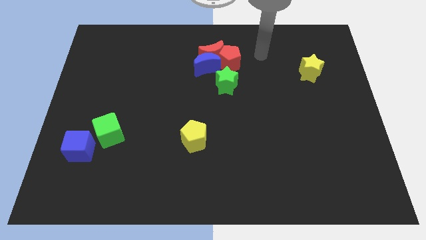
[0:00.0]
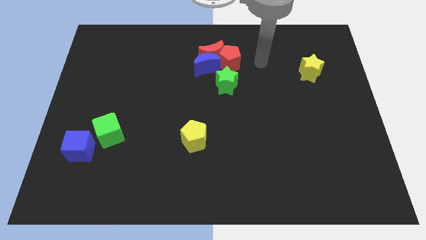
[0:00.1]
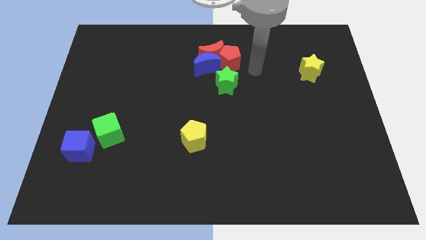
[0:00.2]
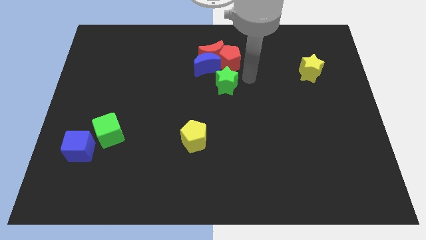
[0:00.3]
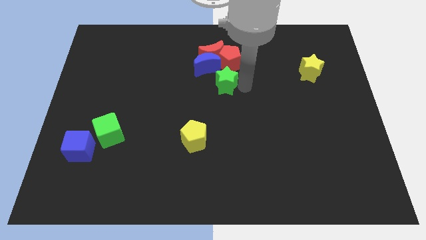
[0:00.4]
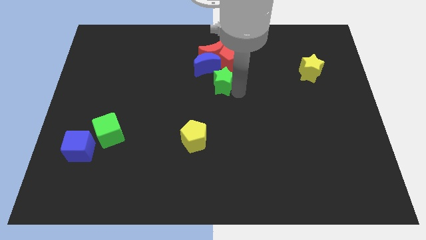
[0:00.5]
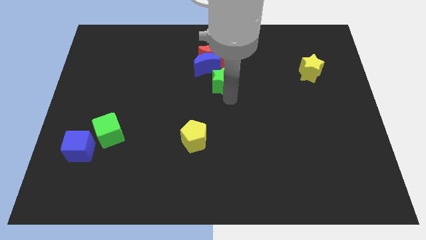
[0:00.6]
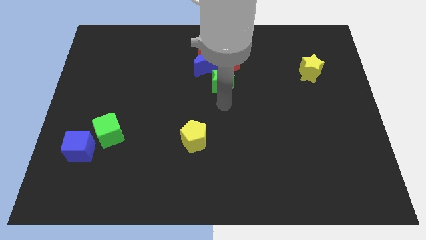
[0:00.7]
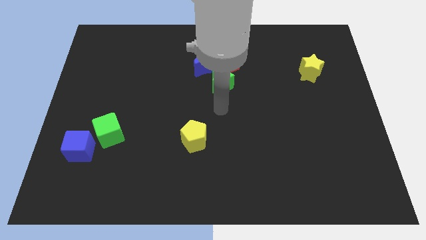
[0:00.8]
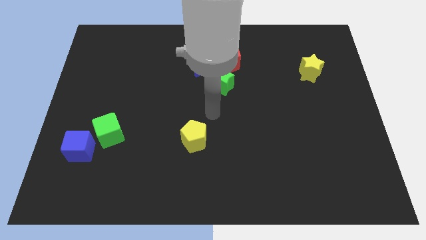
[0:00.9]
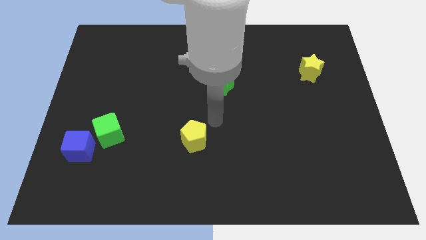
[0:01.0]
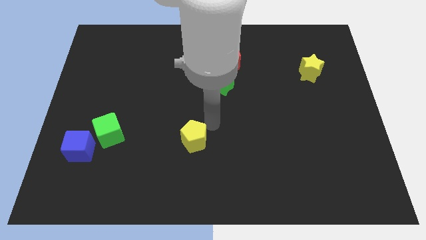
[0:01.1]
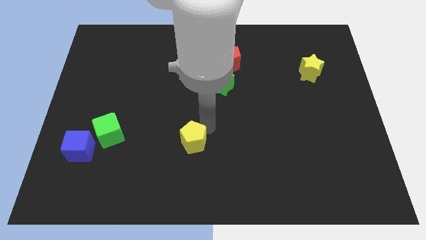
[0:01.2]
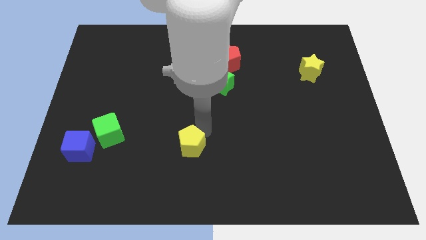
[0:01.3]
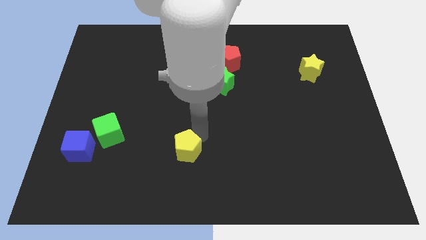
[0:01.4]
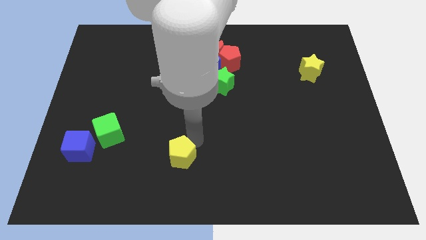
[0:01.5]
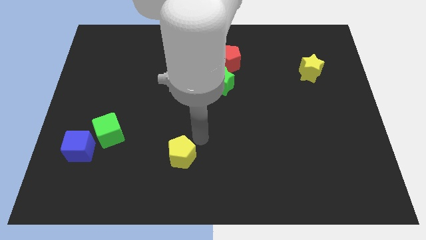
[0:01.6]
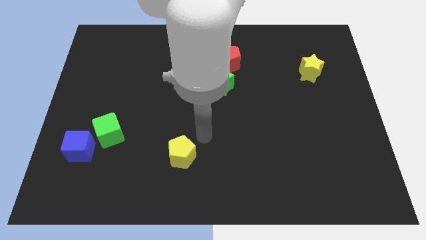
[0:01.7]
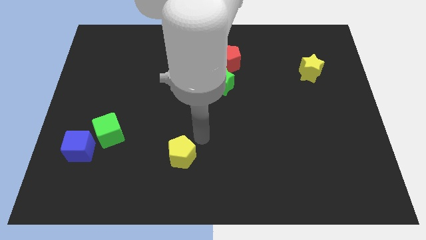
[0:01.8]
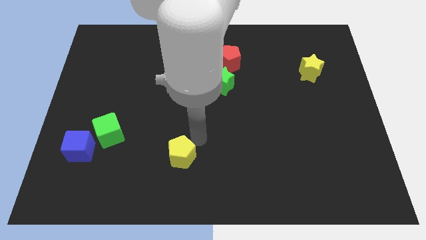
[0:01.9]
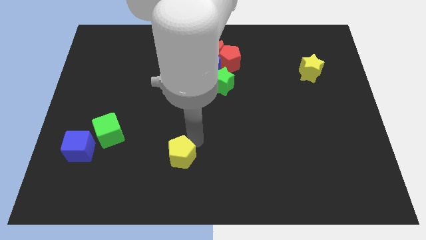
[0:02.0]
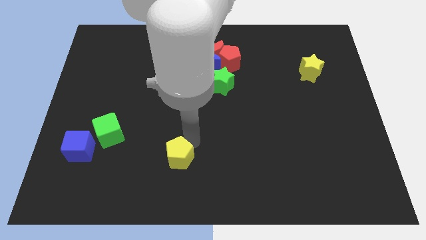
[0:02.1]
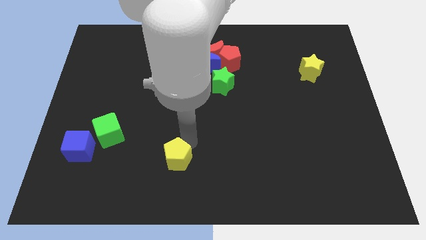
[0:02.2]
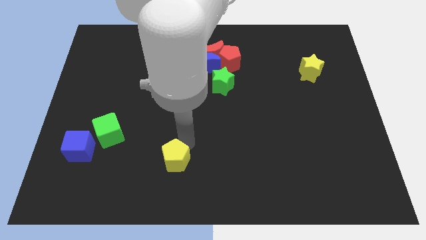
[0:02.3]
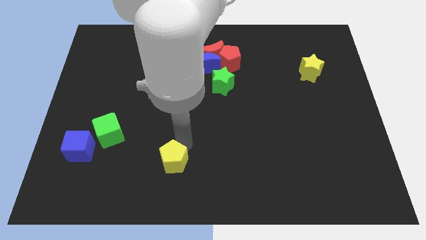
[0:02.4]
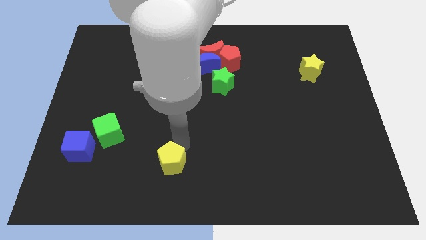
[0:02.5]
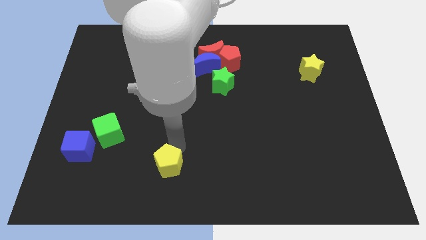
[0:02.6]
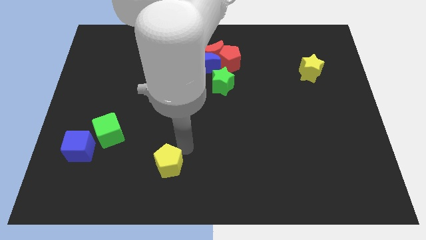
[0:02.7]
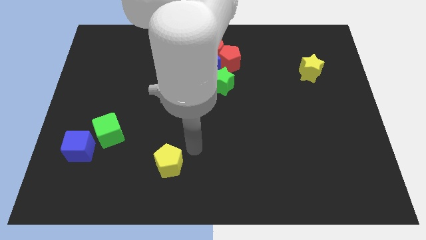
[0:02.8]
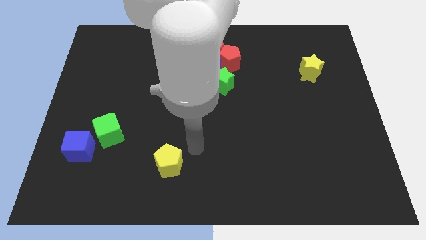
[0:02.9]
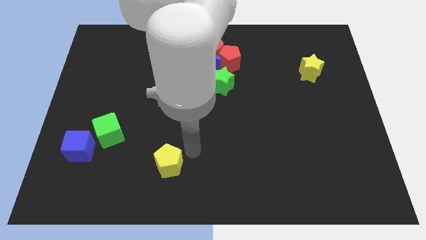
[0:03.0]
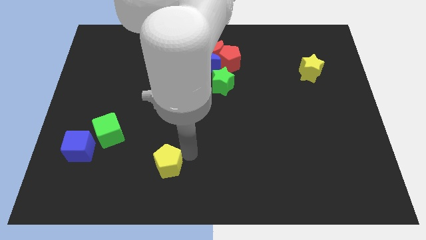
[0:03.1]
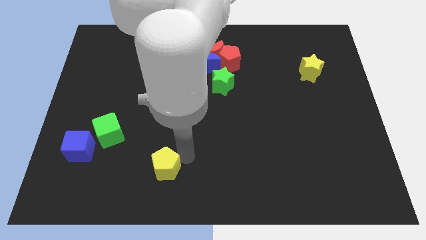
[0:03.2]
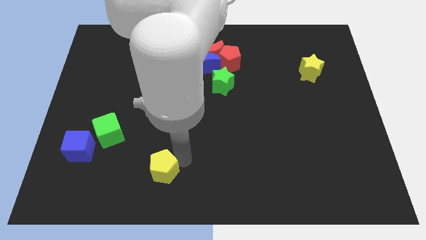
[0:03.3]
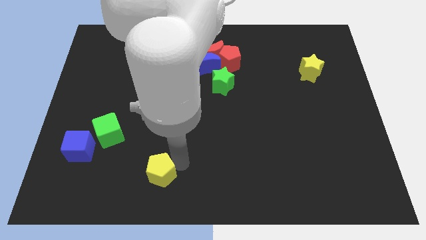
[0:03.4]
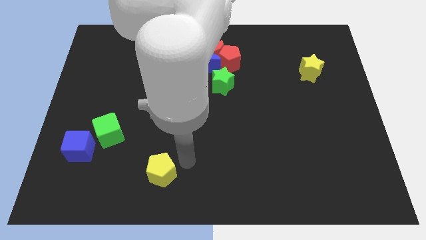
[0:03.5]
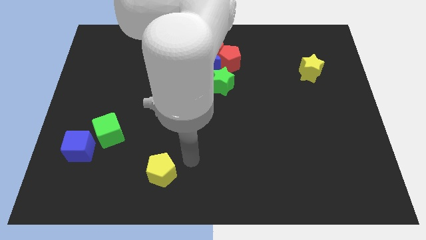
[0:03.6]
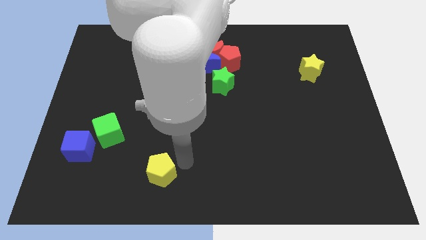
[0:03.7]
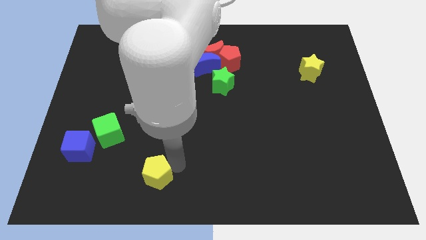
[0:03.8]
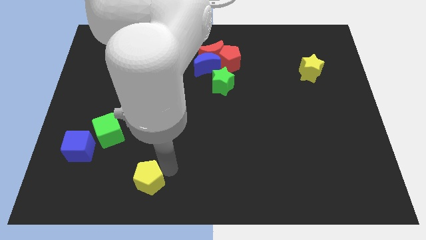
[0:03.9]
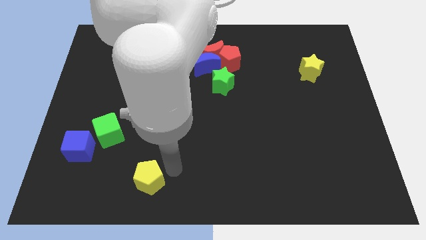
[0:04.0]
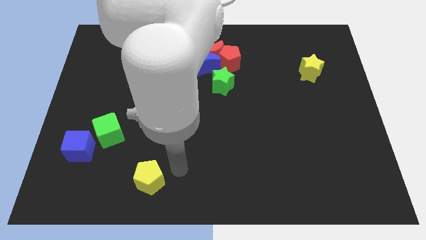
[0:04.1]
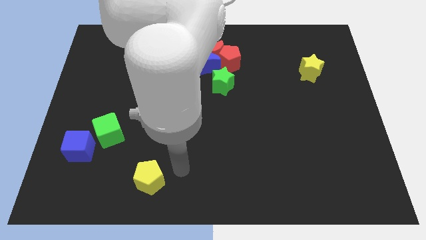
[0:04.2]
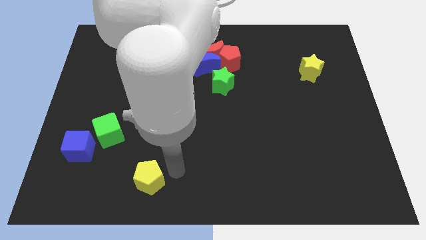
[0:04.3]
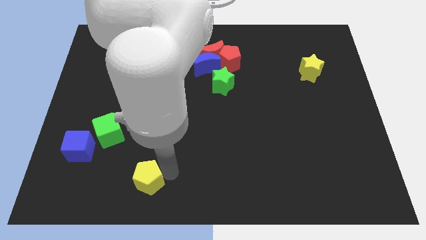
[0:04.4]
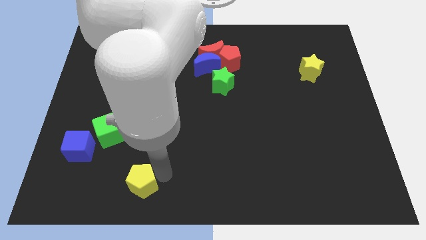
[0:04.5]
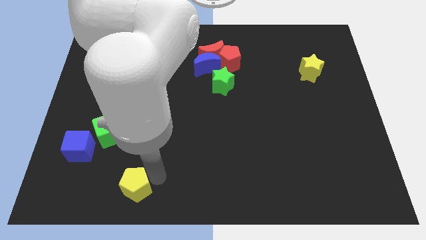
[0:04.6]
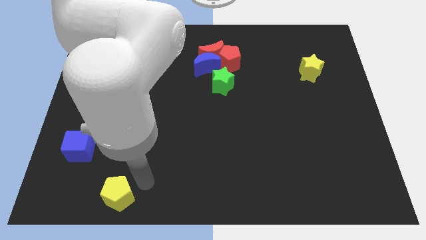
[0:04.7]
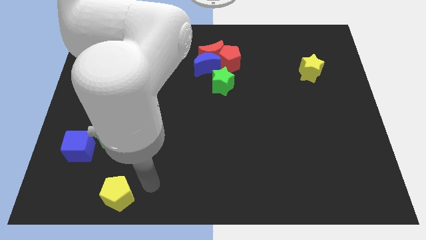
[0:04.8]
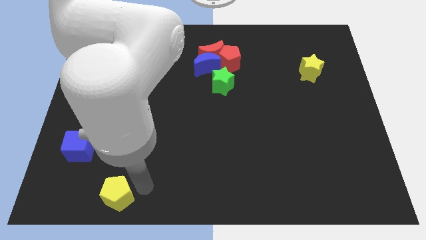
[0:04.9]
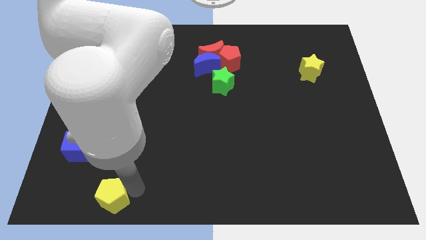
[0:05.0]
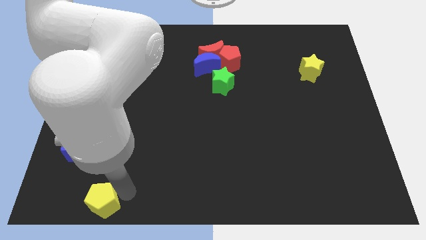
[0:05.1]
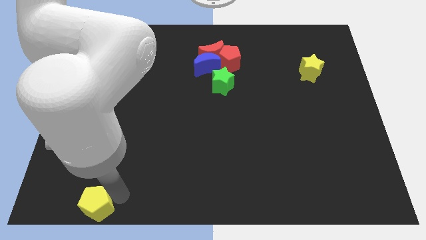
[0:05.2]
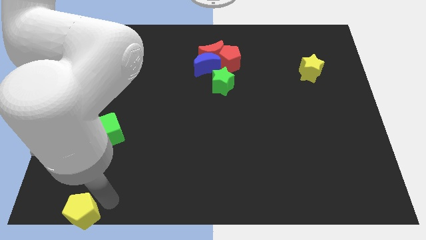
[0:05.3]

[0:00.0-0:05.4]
slide the yellow pentagon to the bottom left

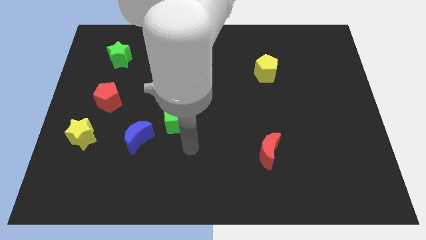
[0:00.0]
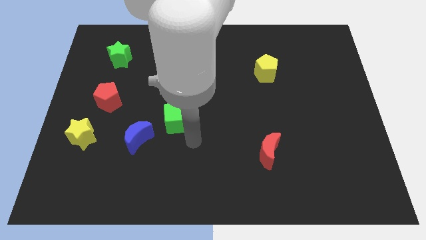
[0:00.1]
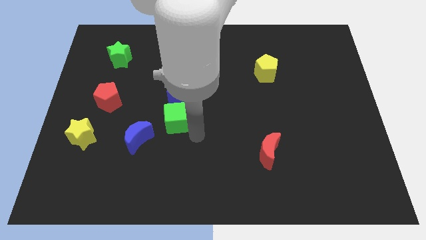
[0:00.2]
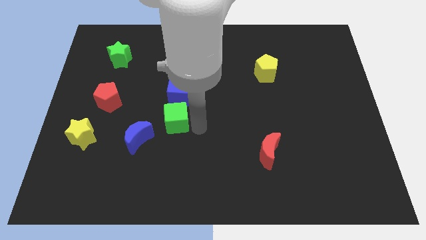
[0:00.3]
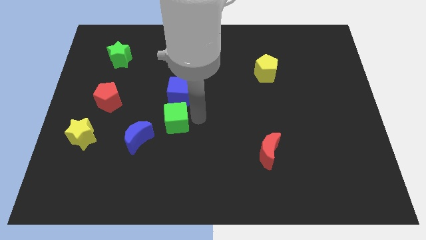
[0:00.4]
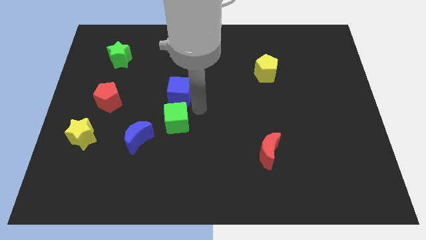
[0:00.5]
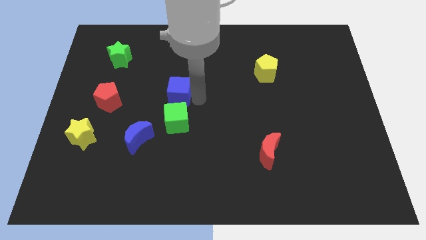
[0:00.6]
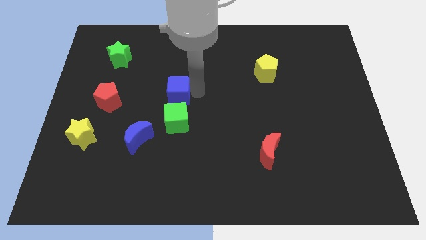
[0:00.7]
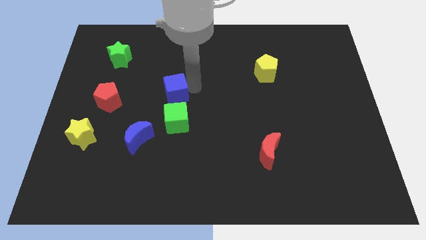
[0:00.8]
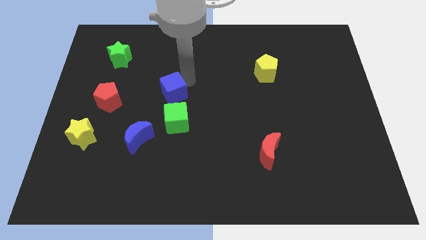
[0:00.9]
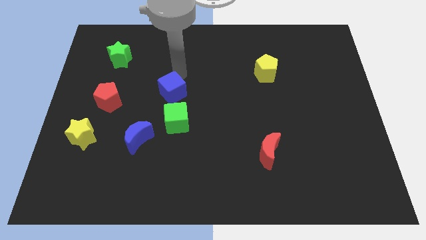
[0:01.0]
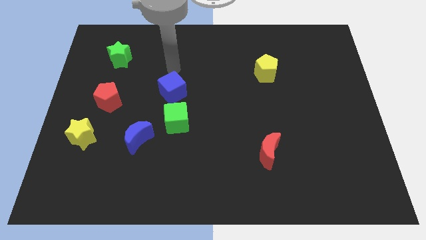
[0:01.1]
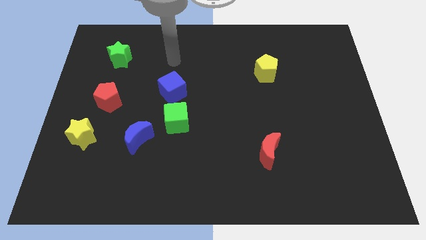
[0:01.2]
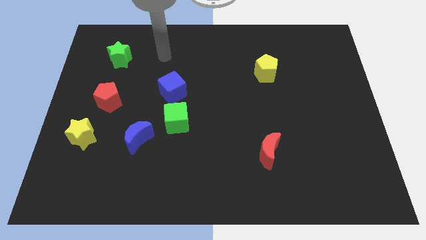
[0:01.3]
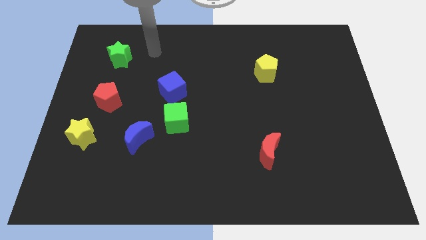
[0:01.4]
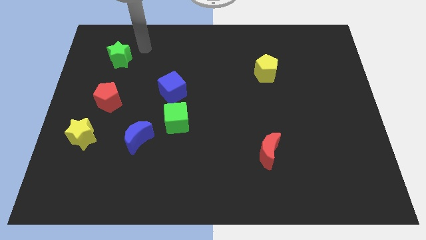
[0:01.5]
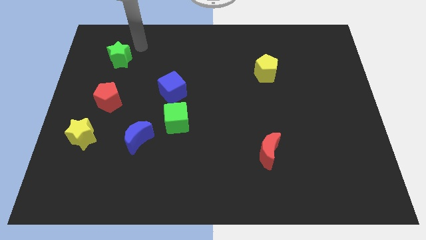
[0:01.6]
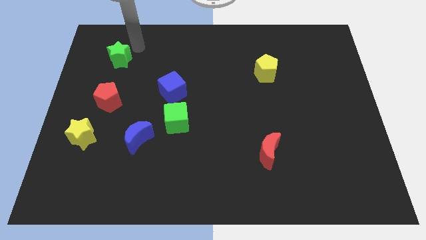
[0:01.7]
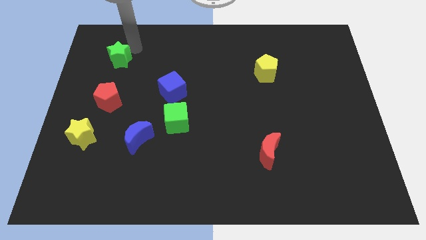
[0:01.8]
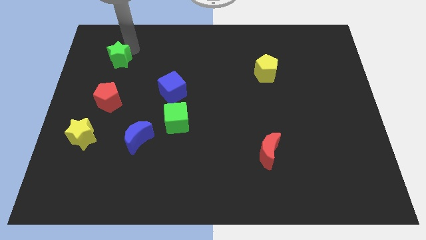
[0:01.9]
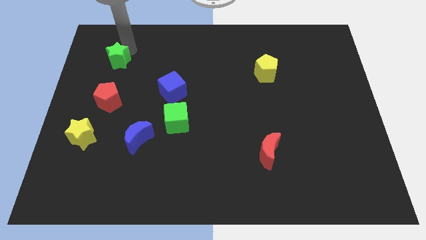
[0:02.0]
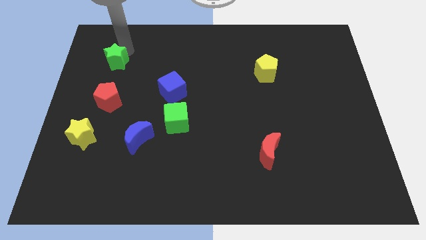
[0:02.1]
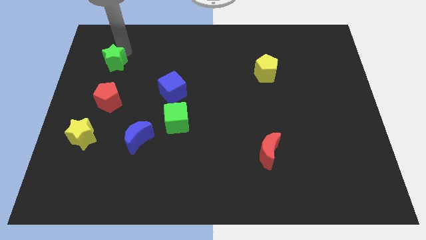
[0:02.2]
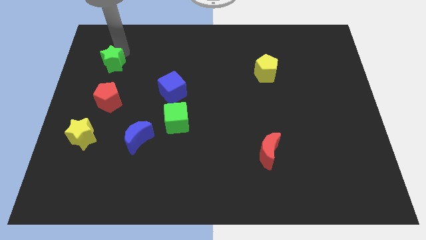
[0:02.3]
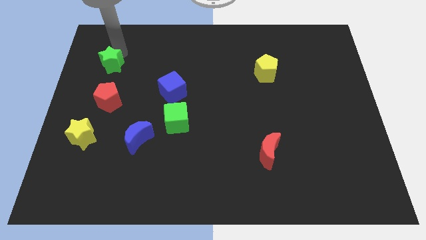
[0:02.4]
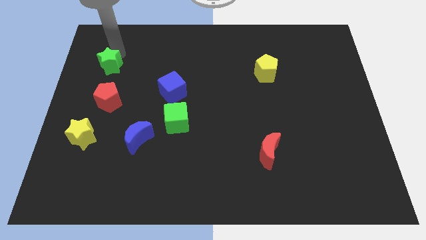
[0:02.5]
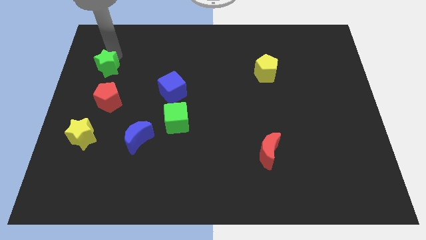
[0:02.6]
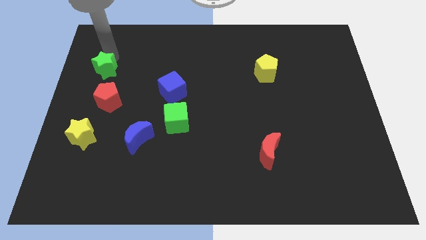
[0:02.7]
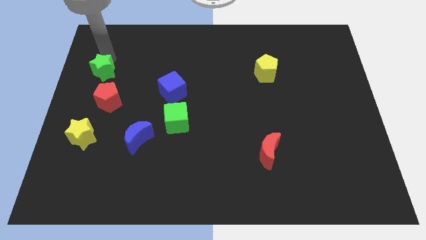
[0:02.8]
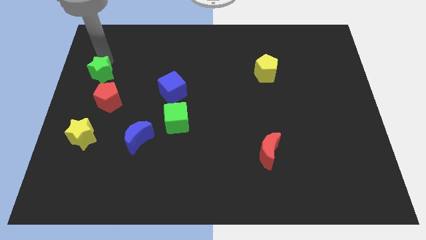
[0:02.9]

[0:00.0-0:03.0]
slide the green star to the center left
